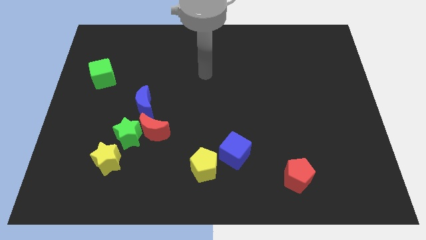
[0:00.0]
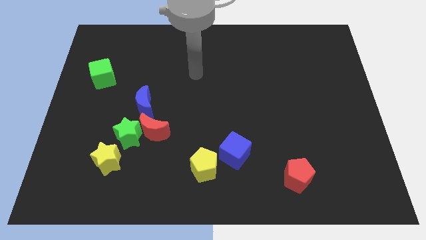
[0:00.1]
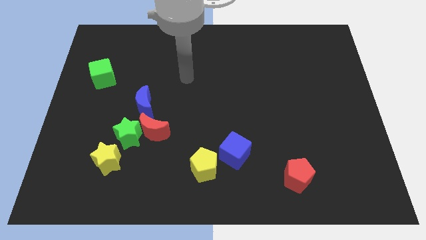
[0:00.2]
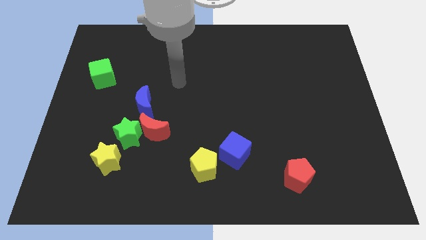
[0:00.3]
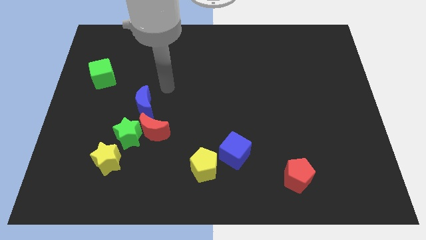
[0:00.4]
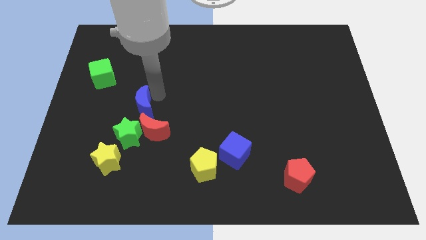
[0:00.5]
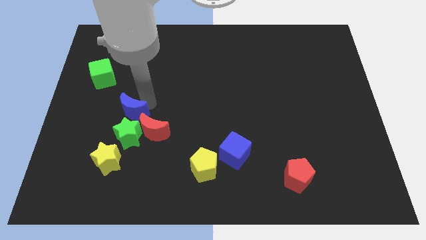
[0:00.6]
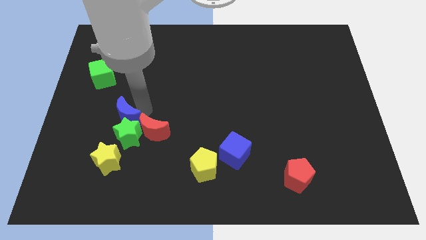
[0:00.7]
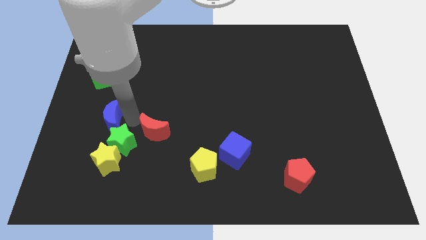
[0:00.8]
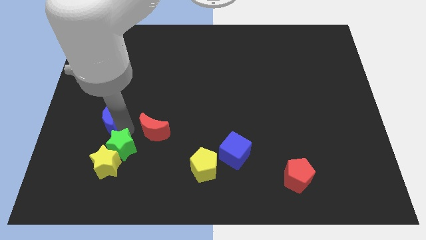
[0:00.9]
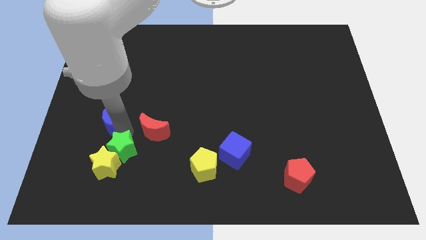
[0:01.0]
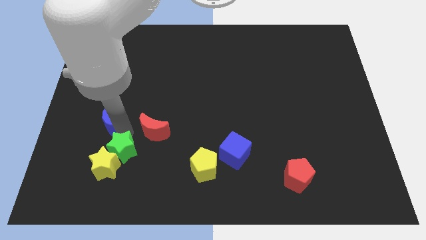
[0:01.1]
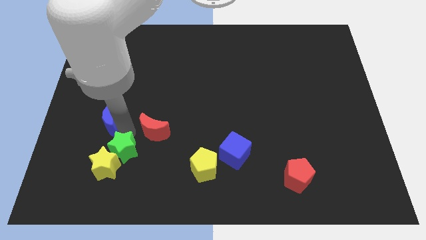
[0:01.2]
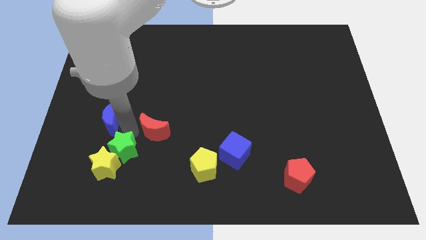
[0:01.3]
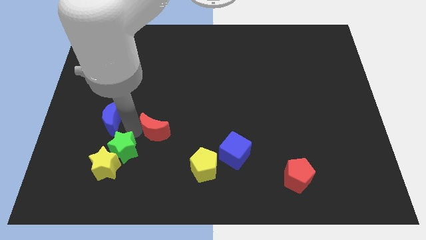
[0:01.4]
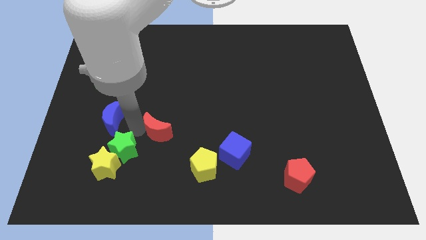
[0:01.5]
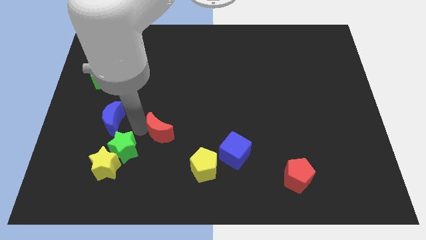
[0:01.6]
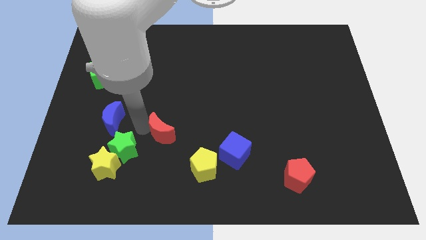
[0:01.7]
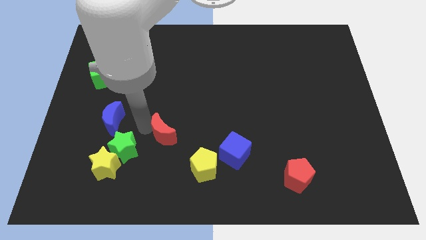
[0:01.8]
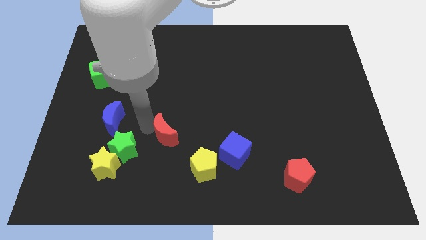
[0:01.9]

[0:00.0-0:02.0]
move the red moon away from the green star and blue moon

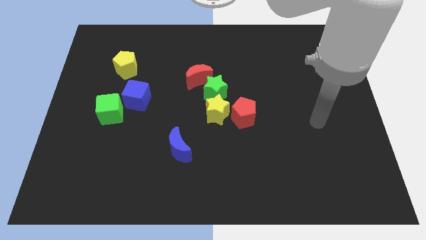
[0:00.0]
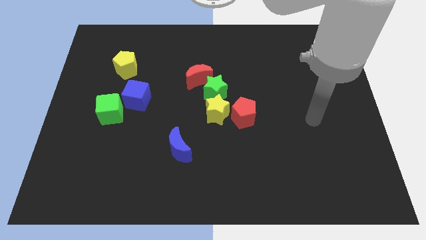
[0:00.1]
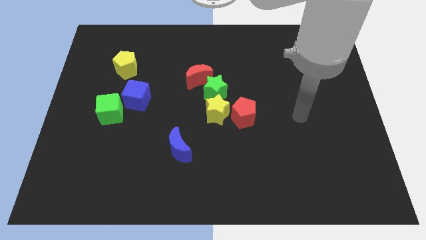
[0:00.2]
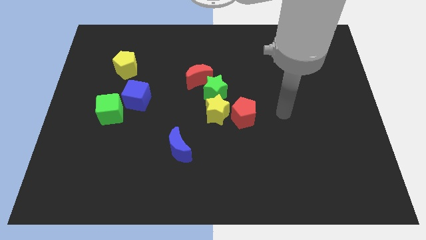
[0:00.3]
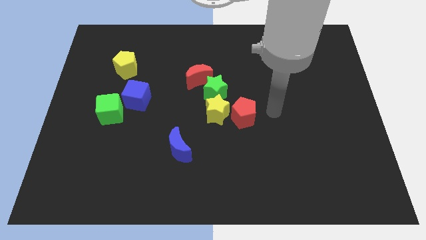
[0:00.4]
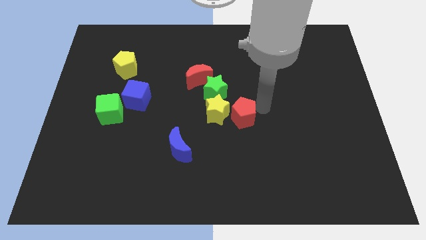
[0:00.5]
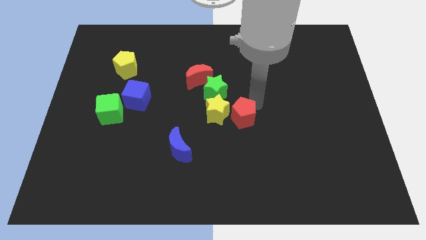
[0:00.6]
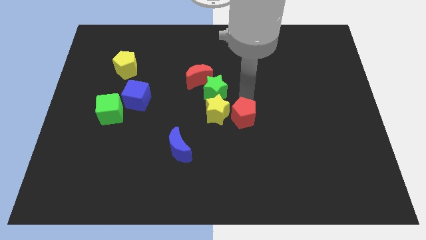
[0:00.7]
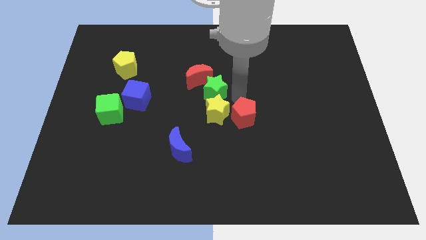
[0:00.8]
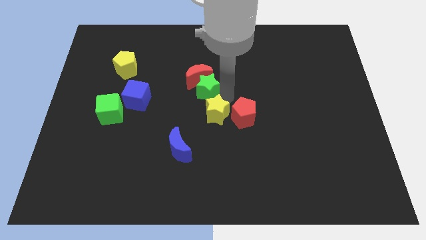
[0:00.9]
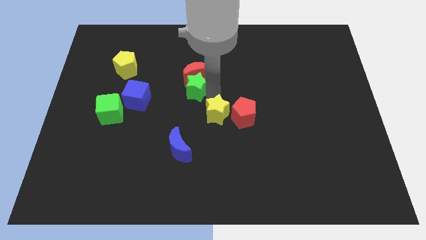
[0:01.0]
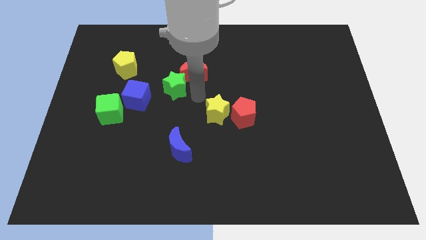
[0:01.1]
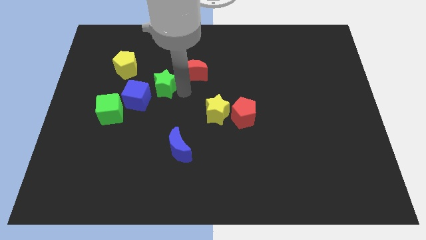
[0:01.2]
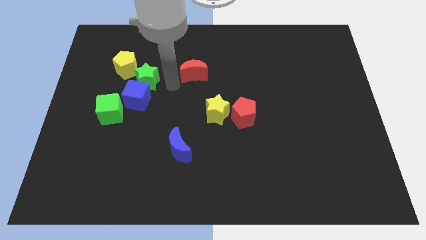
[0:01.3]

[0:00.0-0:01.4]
separate the red moon from the green star

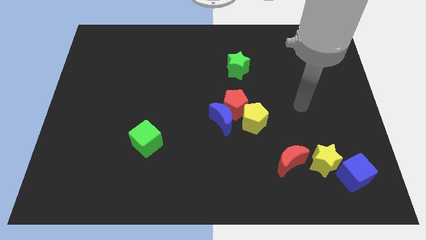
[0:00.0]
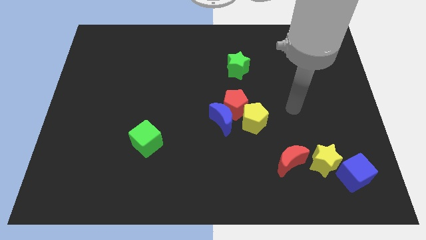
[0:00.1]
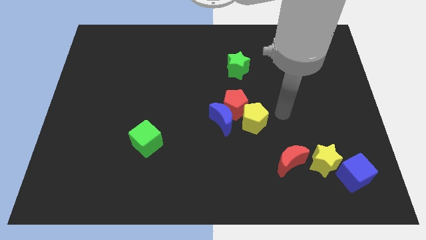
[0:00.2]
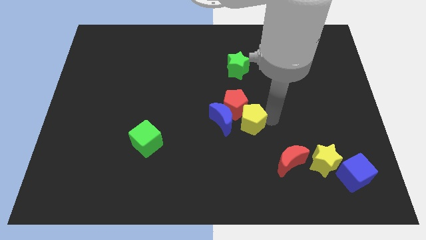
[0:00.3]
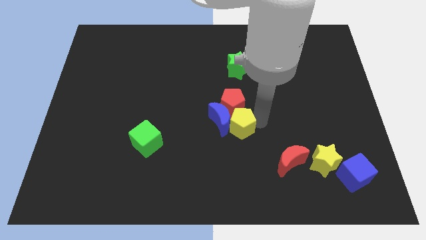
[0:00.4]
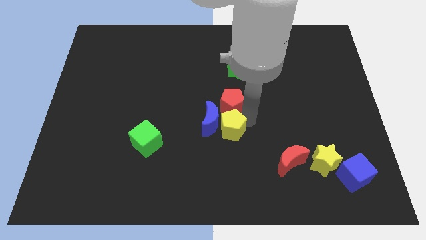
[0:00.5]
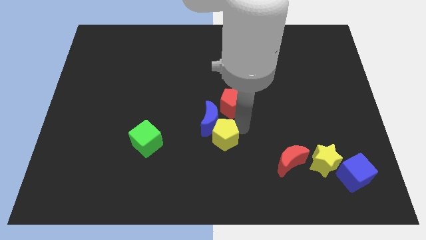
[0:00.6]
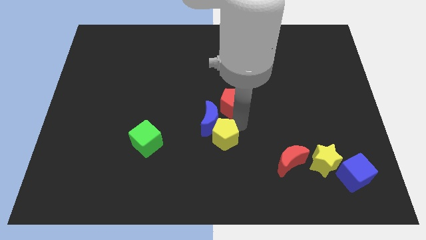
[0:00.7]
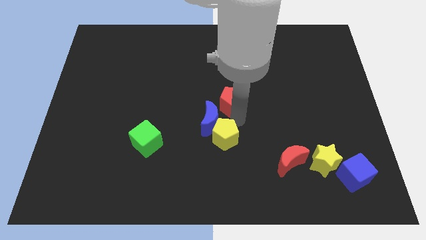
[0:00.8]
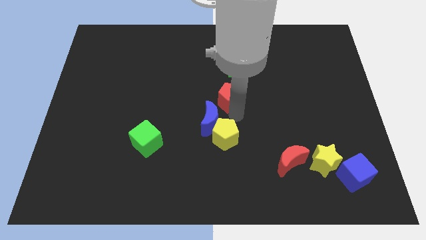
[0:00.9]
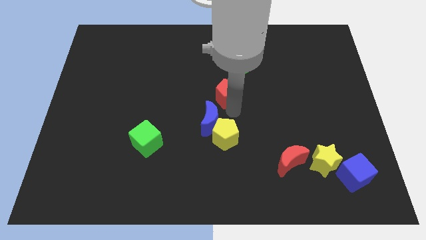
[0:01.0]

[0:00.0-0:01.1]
move the red pentagon away from the blue moon and yellow pentagon

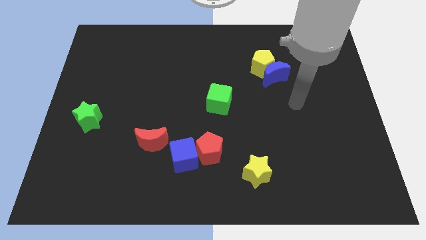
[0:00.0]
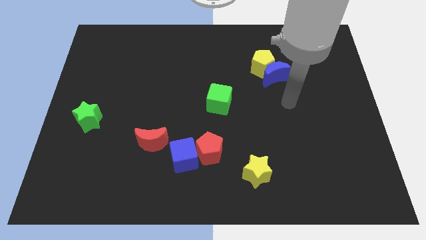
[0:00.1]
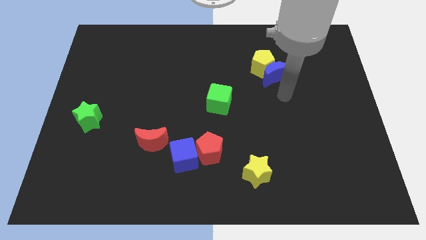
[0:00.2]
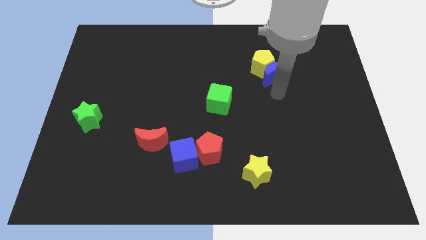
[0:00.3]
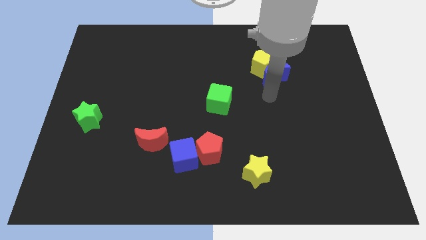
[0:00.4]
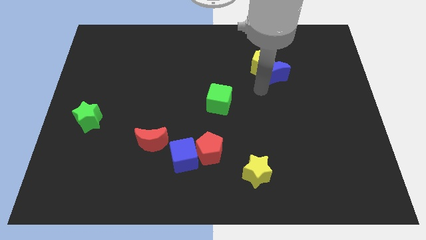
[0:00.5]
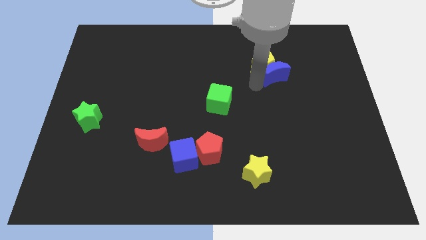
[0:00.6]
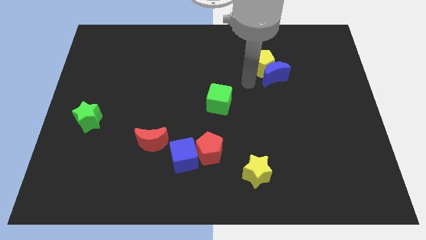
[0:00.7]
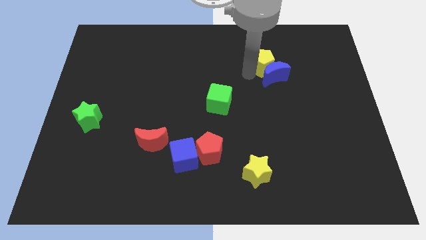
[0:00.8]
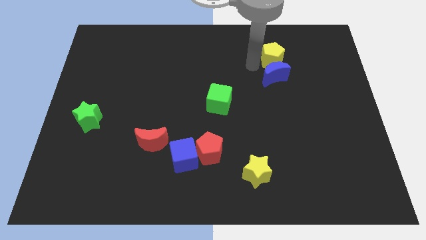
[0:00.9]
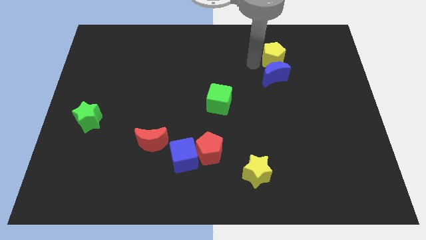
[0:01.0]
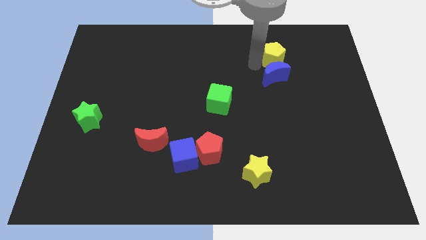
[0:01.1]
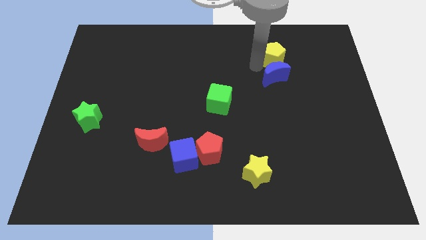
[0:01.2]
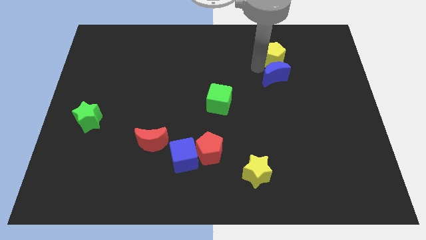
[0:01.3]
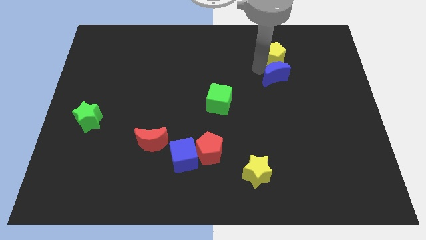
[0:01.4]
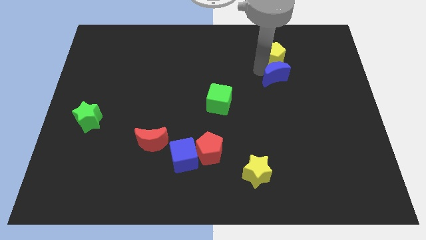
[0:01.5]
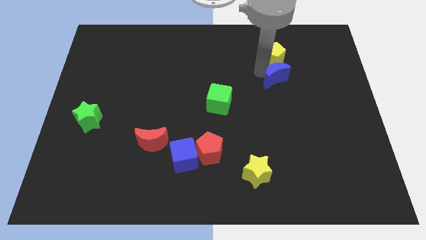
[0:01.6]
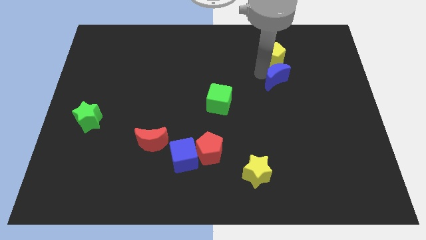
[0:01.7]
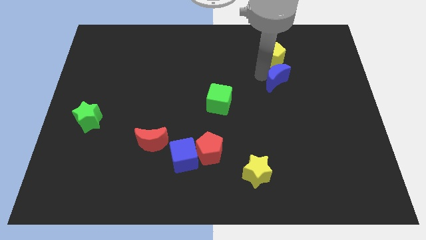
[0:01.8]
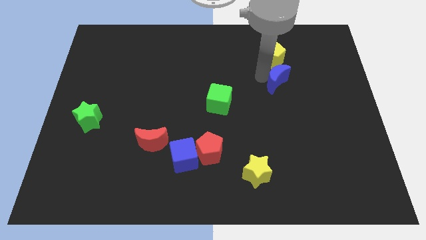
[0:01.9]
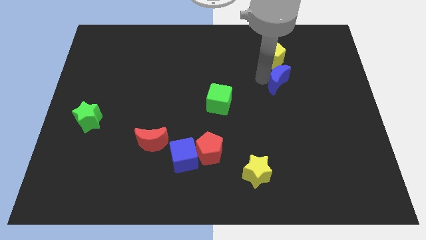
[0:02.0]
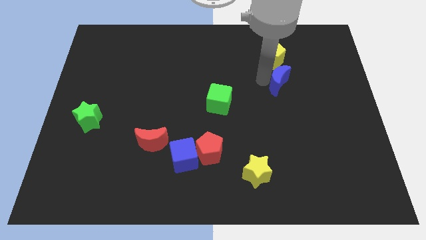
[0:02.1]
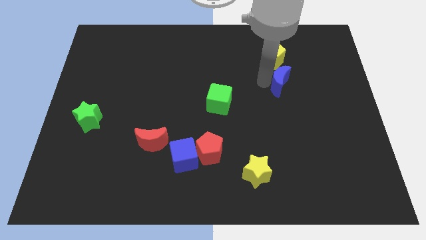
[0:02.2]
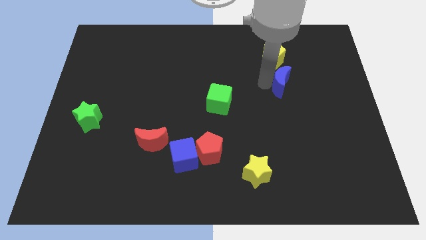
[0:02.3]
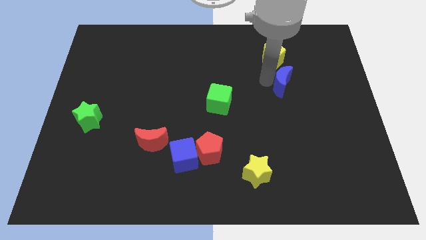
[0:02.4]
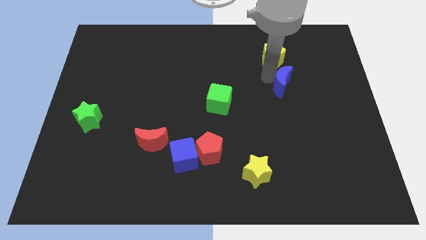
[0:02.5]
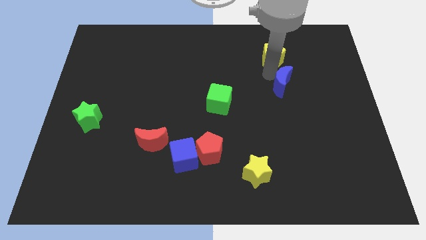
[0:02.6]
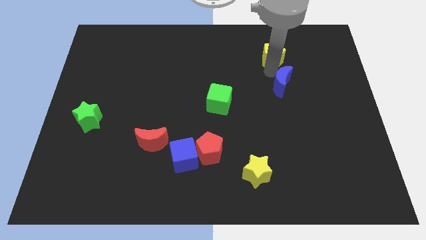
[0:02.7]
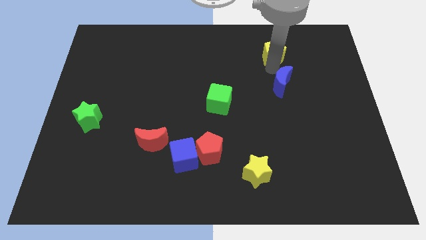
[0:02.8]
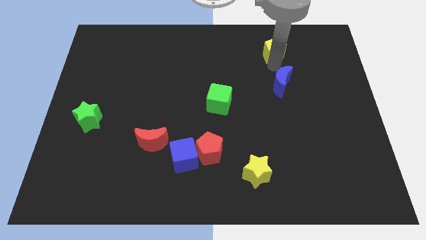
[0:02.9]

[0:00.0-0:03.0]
pull the blue moon apart from the yellow pentagon

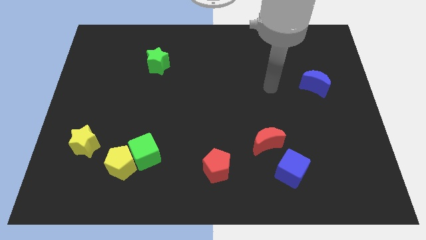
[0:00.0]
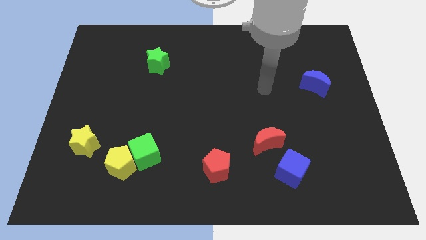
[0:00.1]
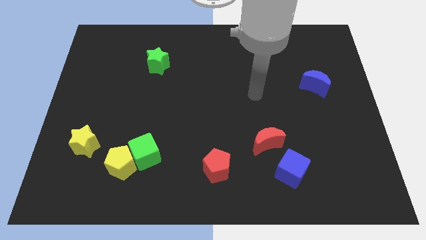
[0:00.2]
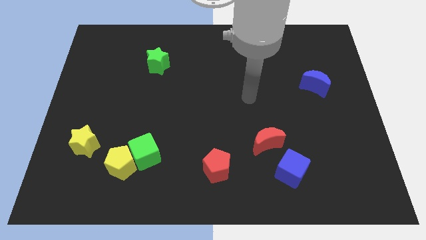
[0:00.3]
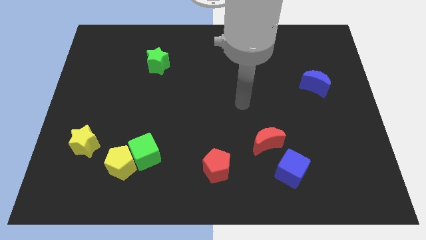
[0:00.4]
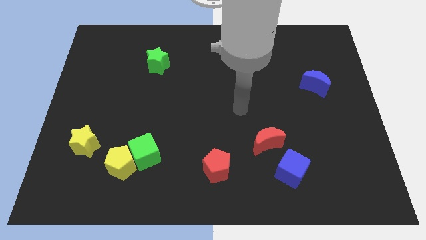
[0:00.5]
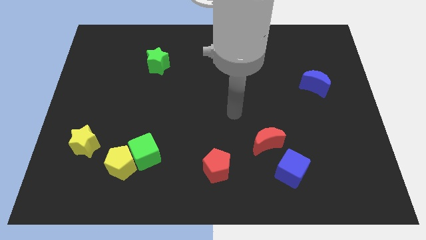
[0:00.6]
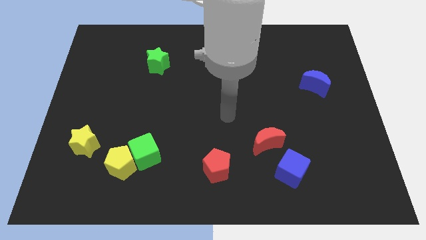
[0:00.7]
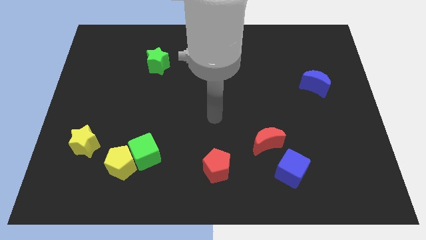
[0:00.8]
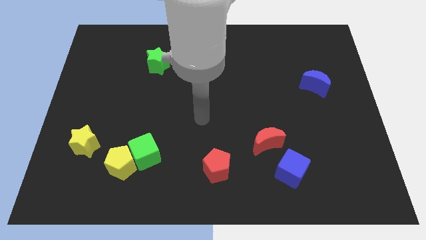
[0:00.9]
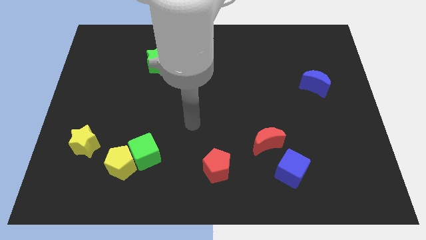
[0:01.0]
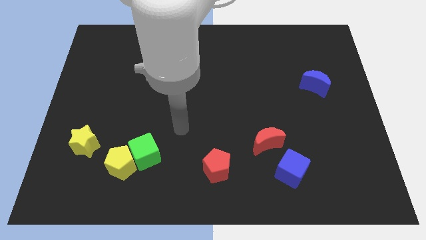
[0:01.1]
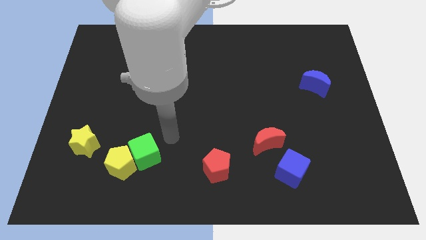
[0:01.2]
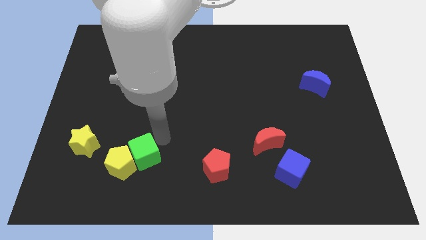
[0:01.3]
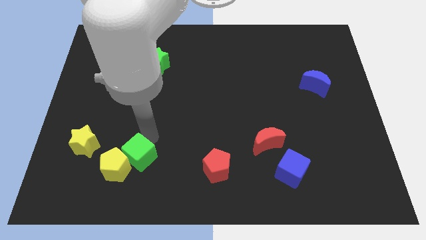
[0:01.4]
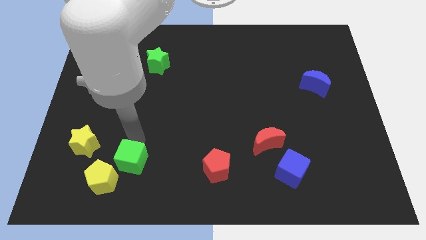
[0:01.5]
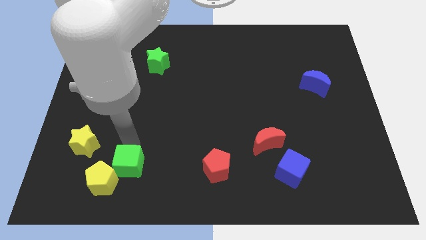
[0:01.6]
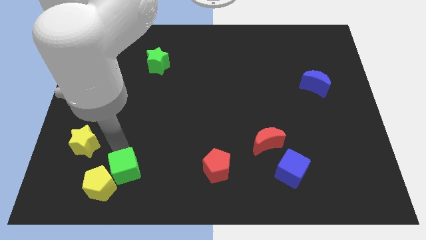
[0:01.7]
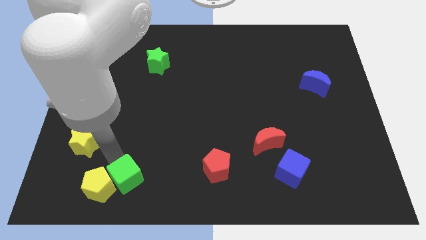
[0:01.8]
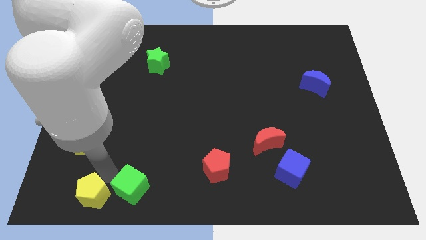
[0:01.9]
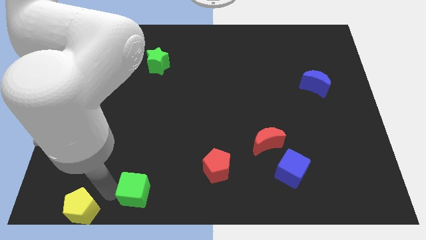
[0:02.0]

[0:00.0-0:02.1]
pull the green cube apart from the yellow pentagon
